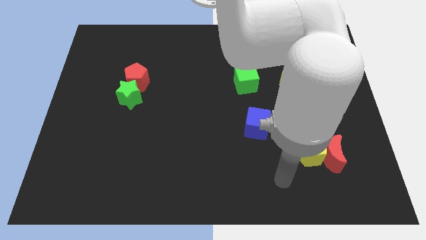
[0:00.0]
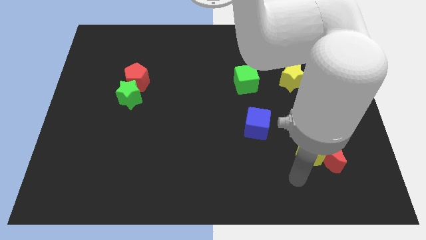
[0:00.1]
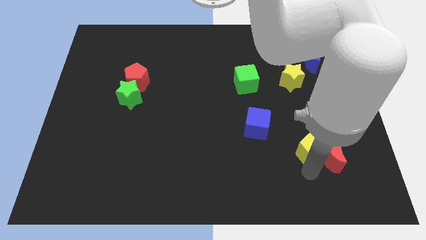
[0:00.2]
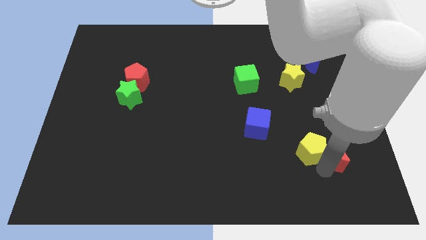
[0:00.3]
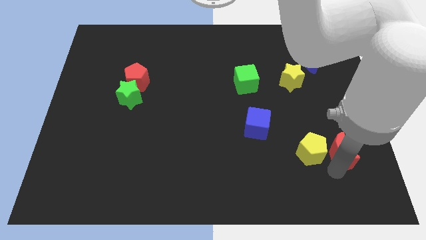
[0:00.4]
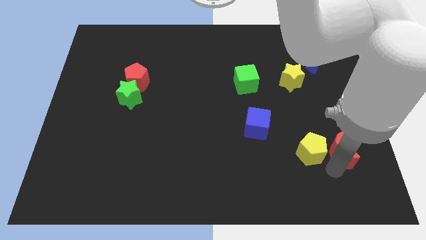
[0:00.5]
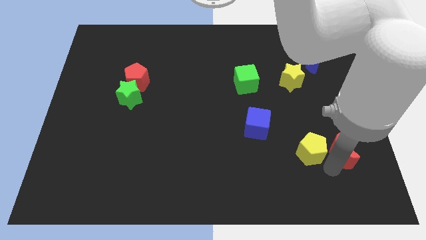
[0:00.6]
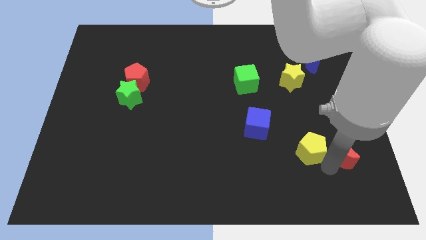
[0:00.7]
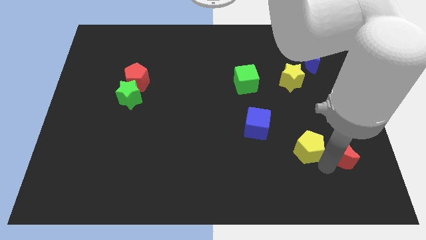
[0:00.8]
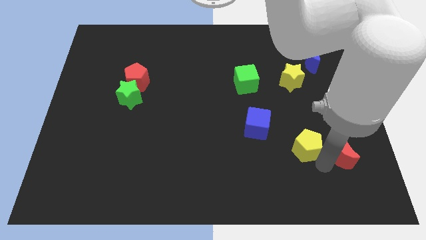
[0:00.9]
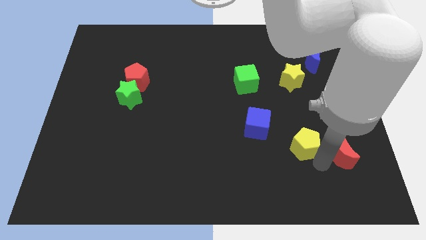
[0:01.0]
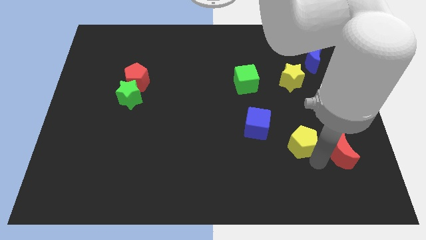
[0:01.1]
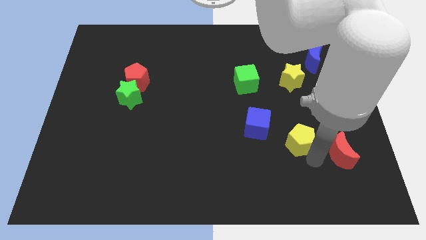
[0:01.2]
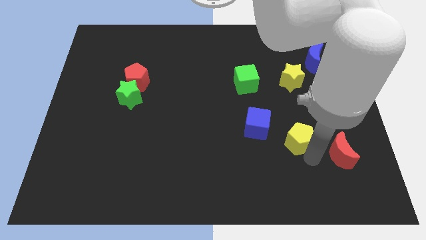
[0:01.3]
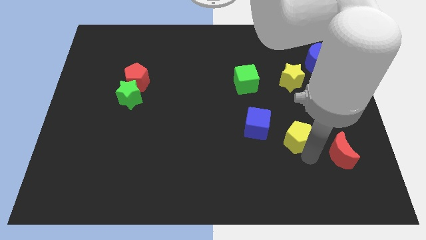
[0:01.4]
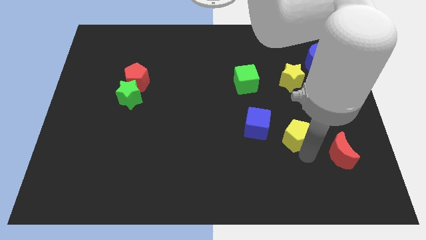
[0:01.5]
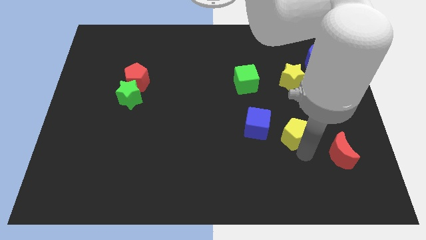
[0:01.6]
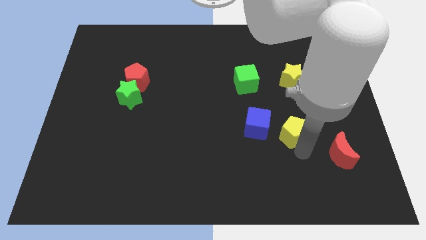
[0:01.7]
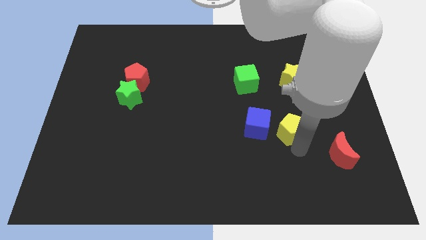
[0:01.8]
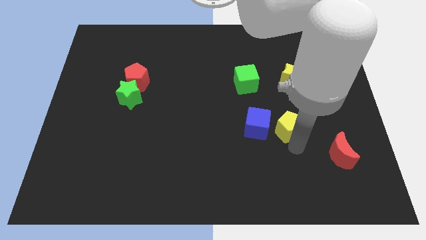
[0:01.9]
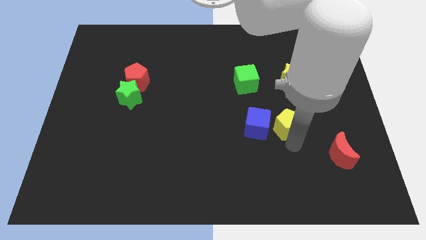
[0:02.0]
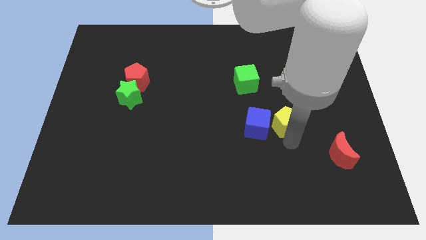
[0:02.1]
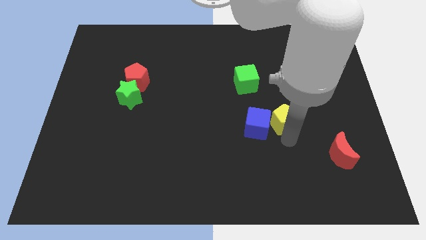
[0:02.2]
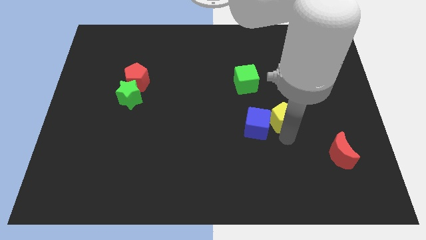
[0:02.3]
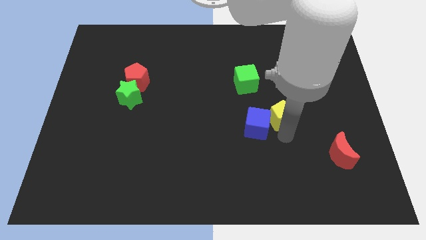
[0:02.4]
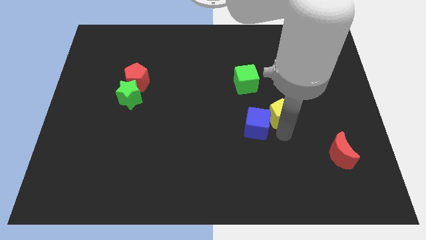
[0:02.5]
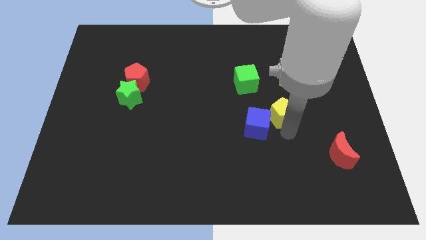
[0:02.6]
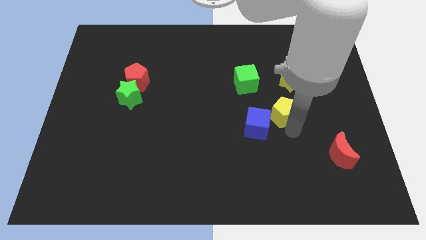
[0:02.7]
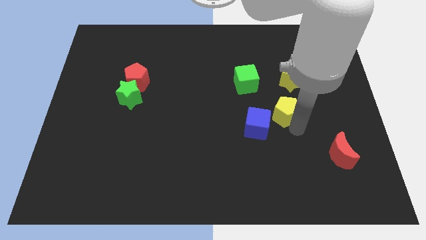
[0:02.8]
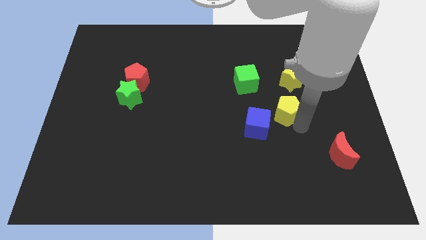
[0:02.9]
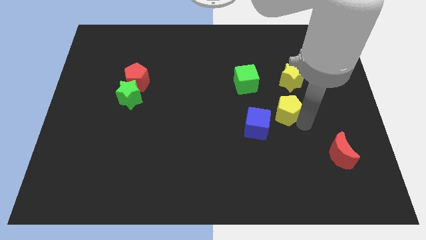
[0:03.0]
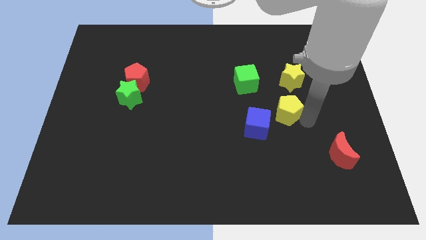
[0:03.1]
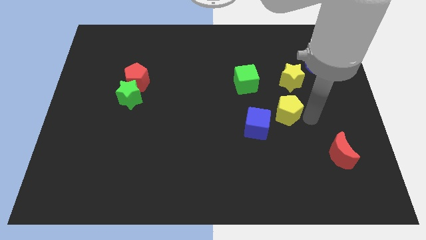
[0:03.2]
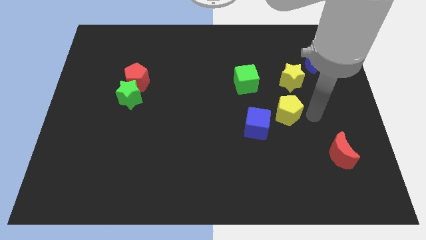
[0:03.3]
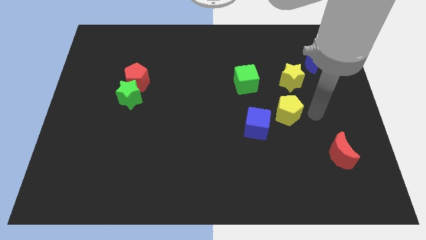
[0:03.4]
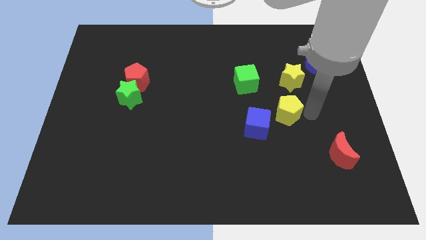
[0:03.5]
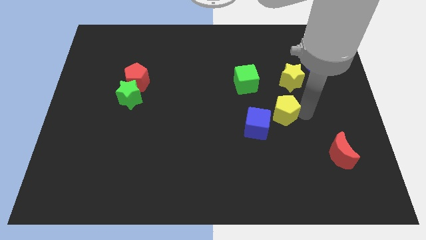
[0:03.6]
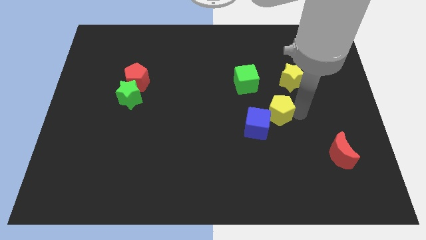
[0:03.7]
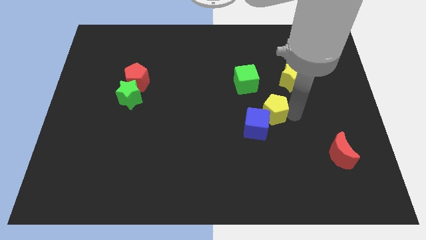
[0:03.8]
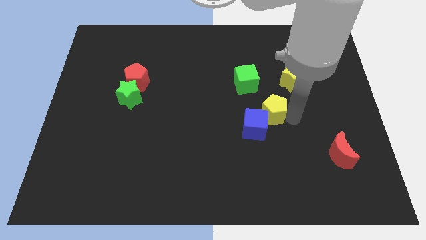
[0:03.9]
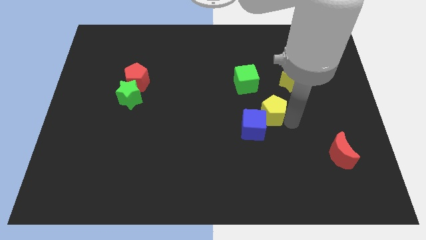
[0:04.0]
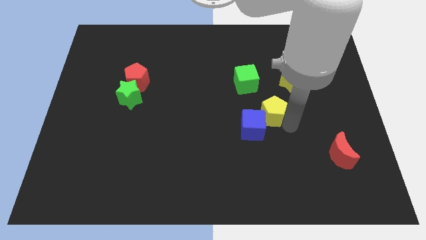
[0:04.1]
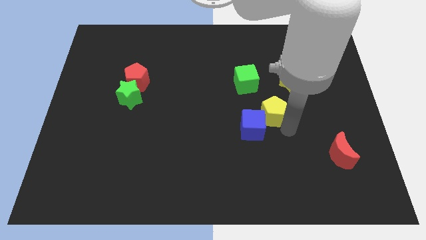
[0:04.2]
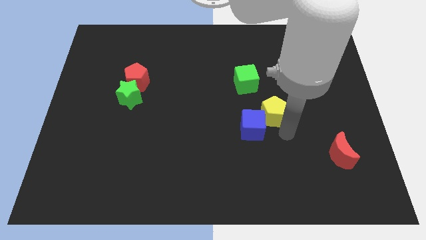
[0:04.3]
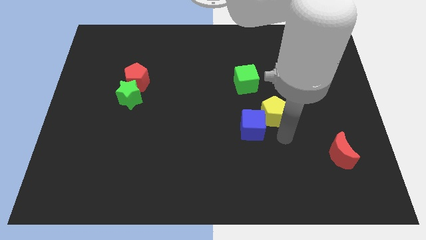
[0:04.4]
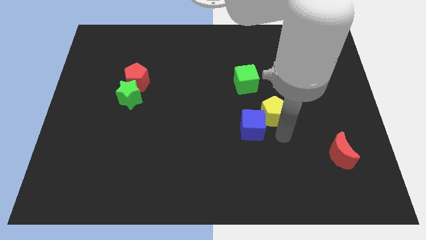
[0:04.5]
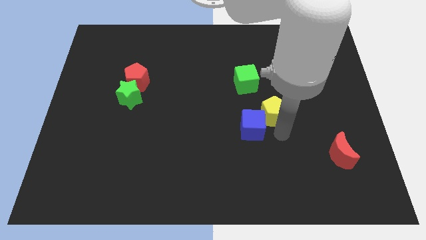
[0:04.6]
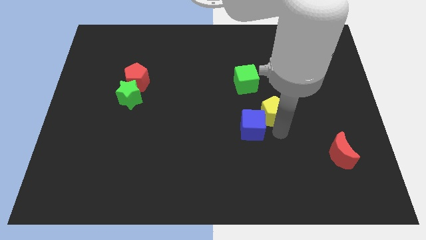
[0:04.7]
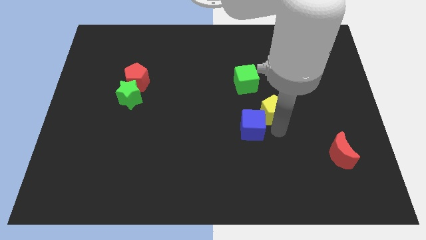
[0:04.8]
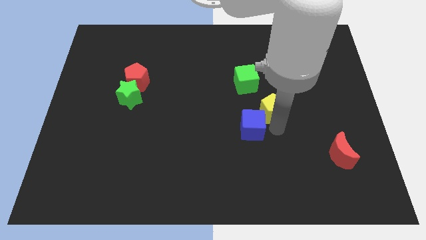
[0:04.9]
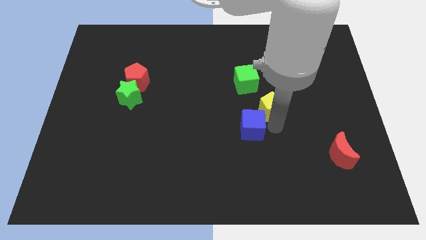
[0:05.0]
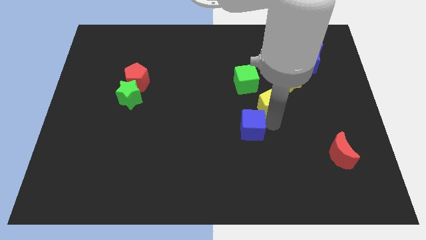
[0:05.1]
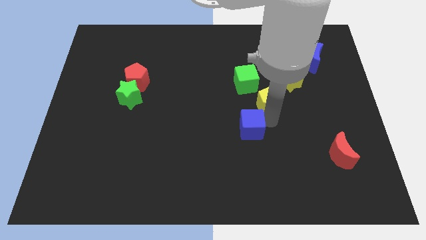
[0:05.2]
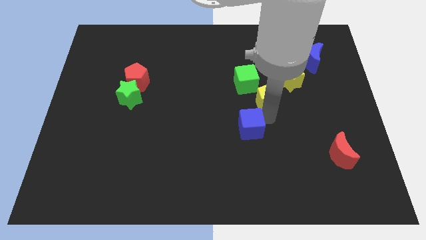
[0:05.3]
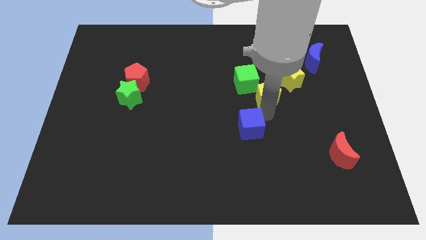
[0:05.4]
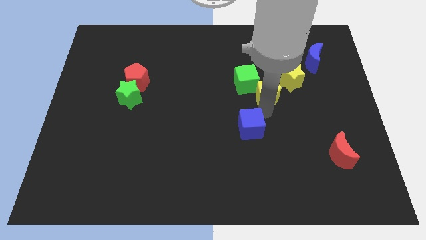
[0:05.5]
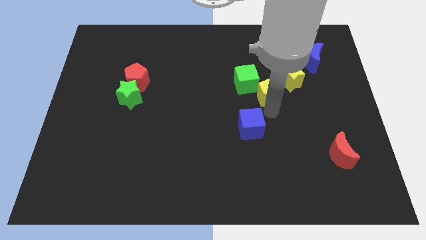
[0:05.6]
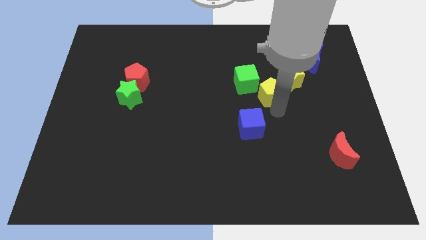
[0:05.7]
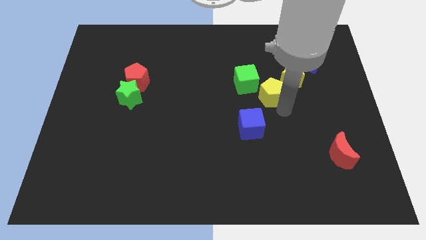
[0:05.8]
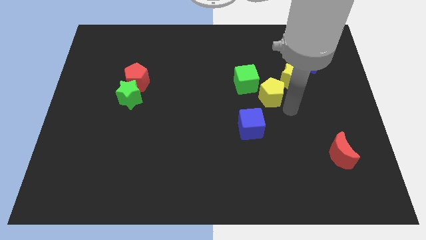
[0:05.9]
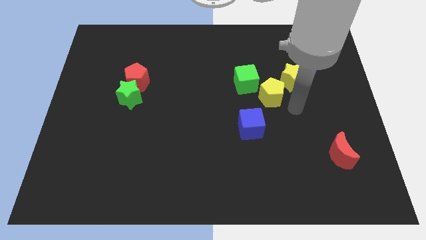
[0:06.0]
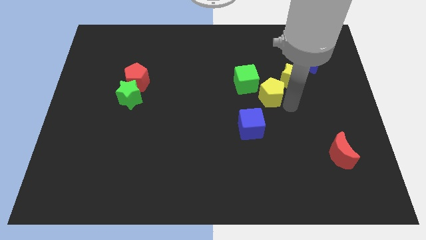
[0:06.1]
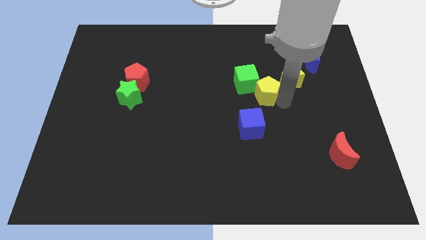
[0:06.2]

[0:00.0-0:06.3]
move the yellow pentagon next to the green cube

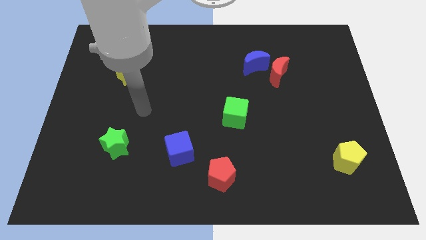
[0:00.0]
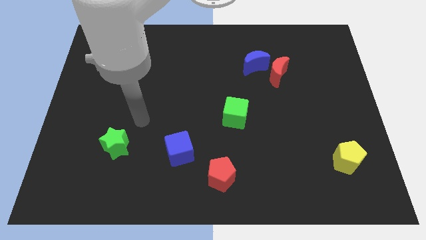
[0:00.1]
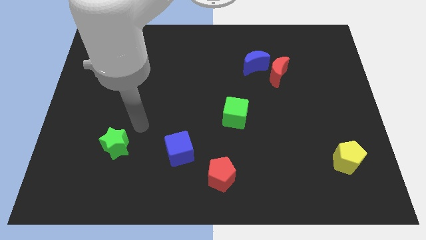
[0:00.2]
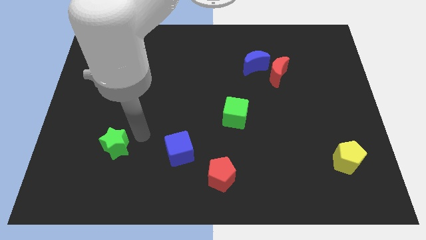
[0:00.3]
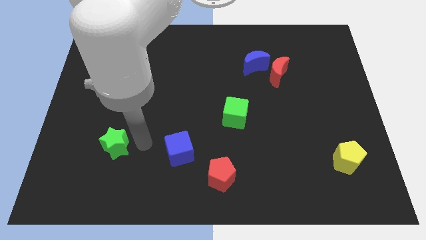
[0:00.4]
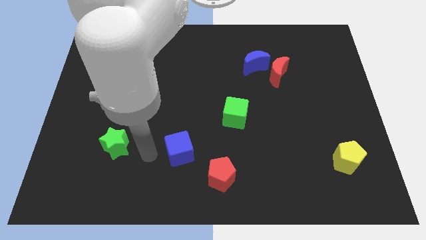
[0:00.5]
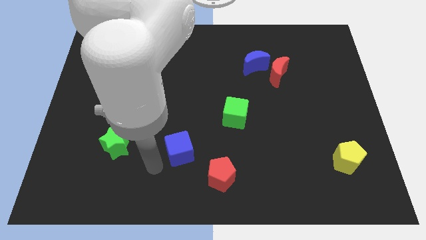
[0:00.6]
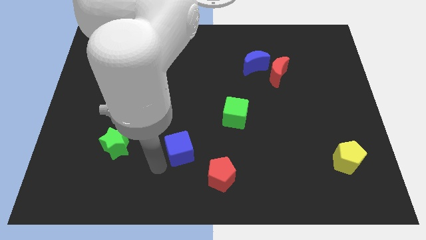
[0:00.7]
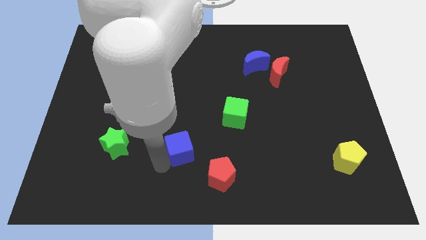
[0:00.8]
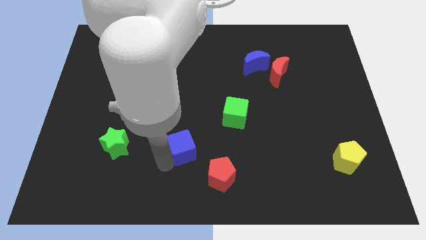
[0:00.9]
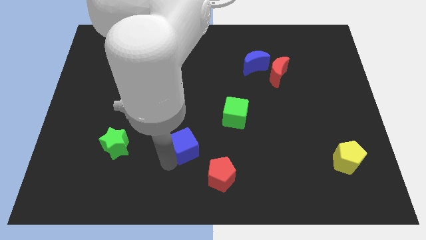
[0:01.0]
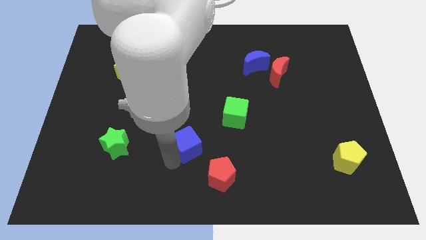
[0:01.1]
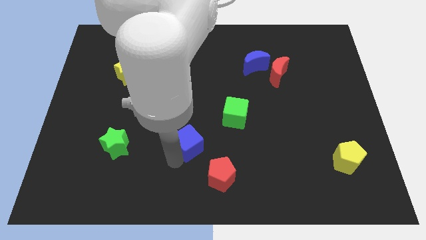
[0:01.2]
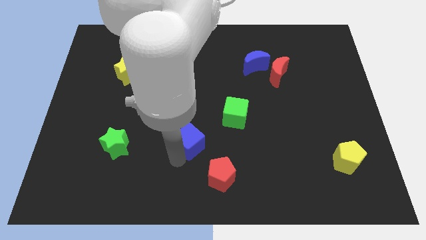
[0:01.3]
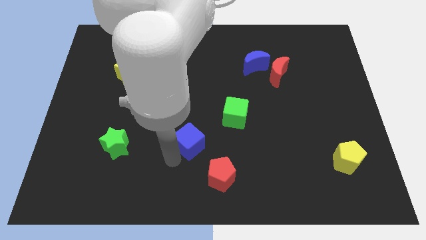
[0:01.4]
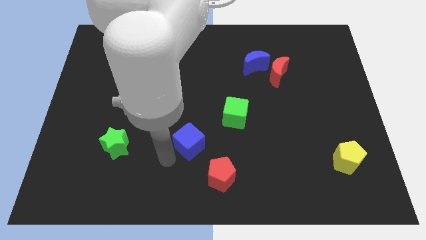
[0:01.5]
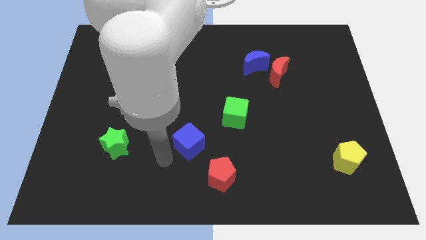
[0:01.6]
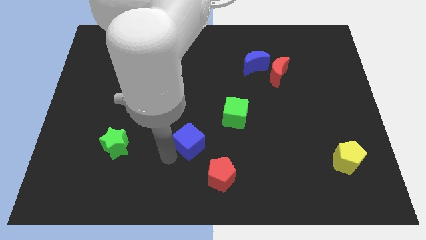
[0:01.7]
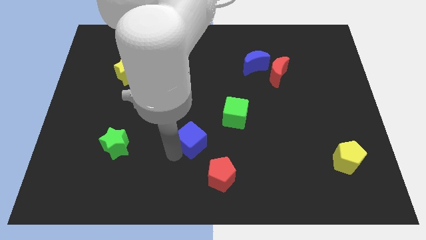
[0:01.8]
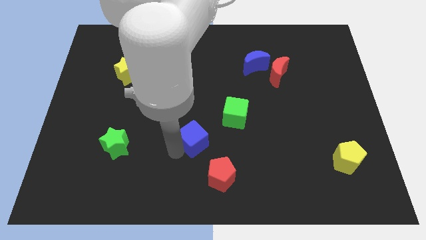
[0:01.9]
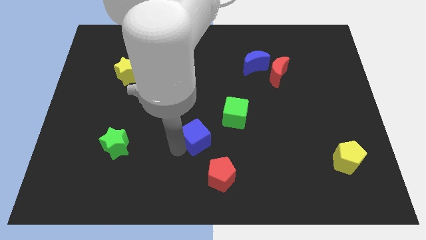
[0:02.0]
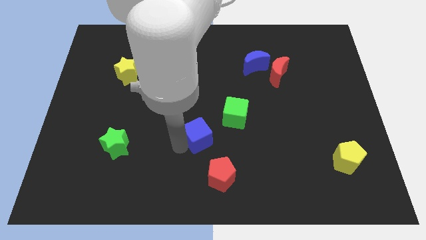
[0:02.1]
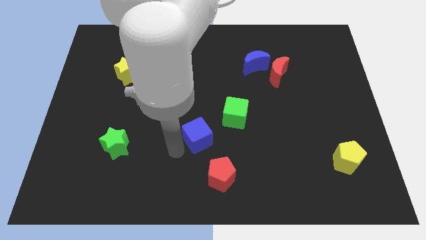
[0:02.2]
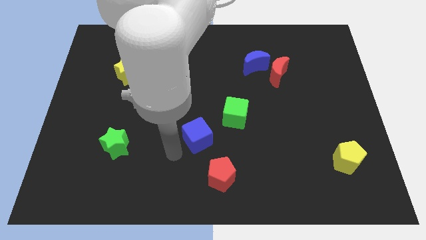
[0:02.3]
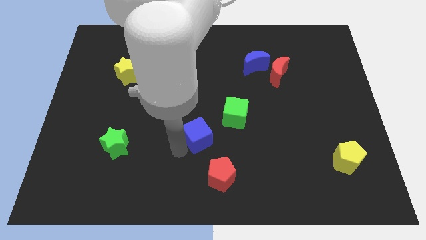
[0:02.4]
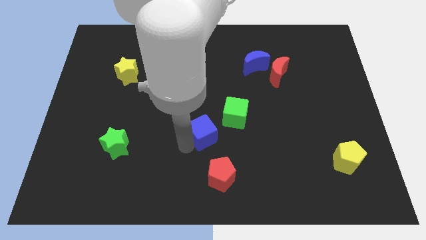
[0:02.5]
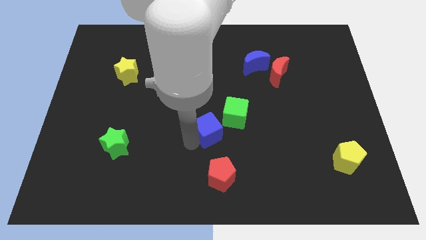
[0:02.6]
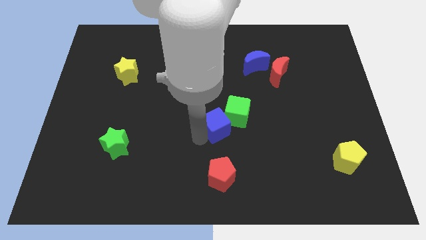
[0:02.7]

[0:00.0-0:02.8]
move the blue cube towards the green cube
